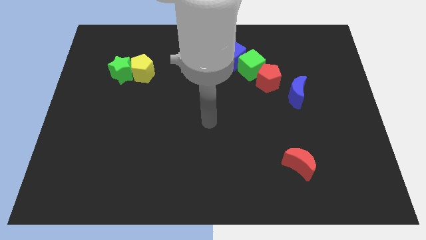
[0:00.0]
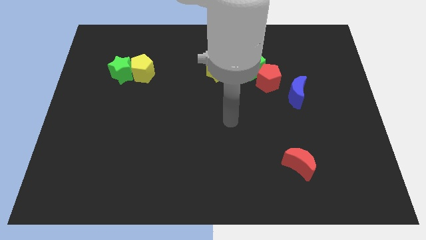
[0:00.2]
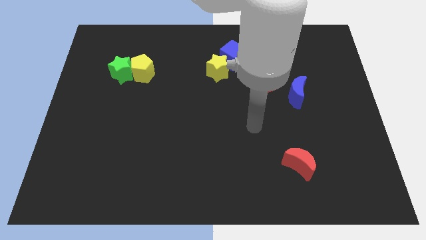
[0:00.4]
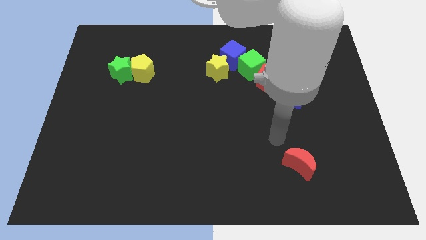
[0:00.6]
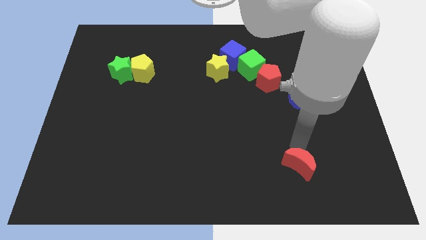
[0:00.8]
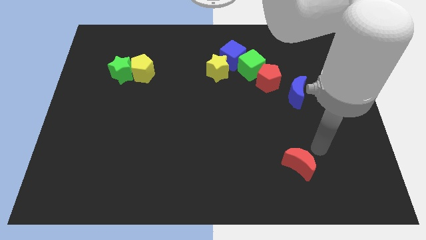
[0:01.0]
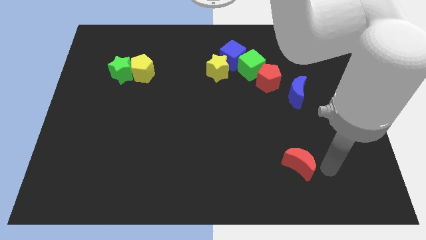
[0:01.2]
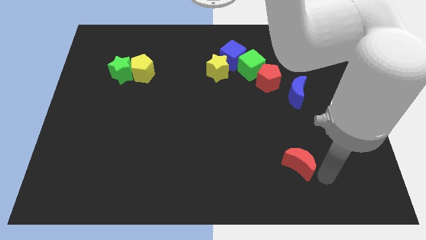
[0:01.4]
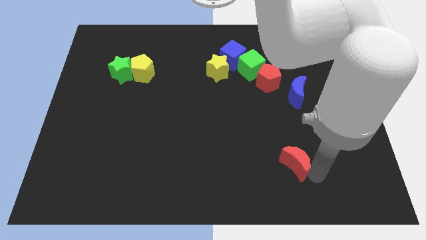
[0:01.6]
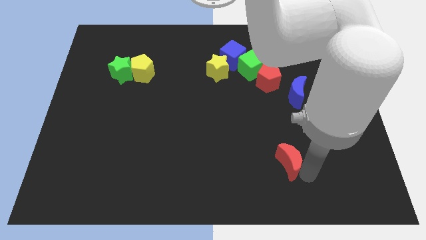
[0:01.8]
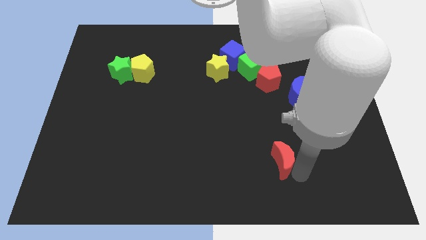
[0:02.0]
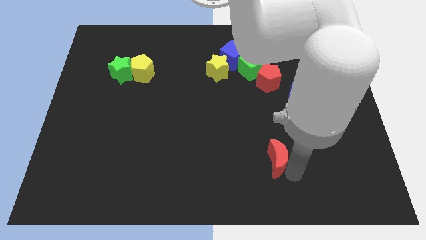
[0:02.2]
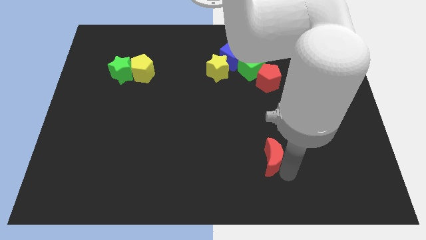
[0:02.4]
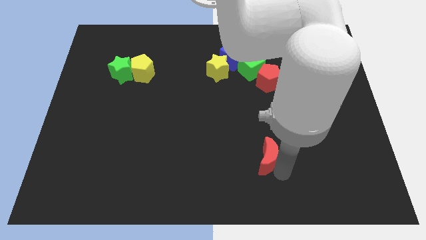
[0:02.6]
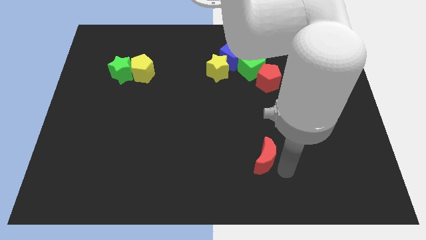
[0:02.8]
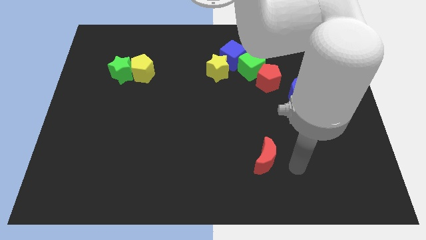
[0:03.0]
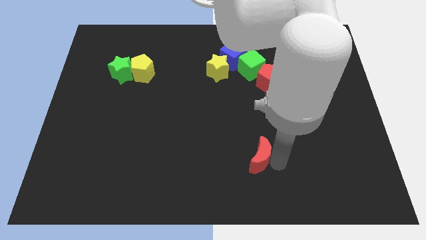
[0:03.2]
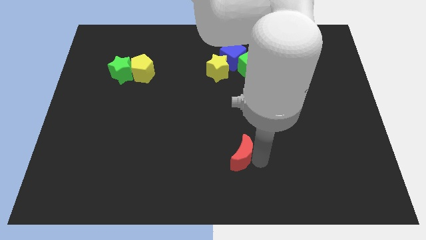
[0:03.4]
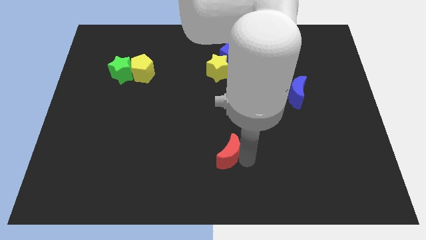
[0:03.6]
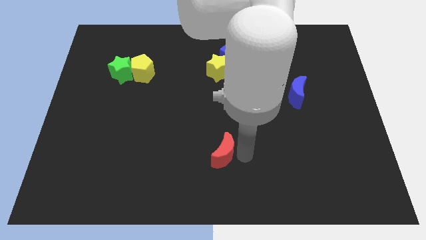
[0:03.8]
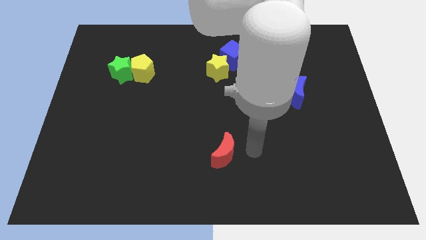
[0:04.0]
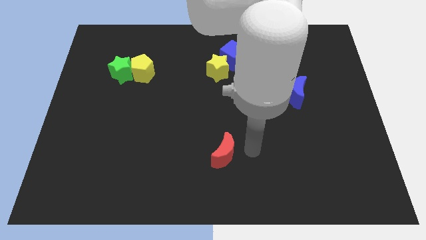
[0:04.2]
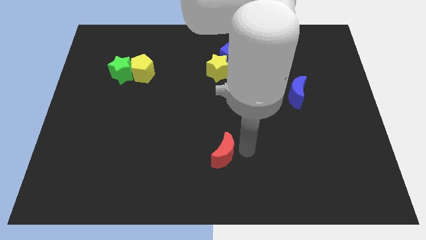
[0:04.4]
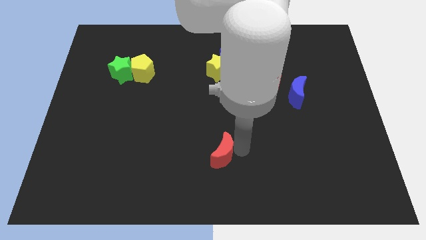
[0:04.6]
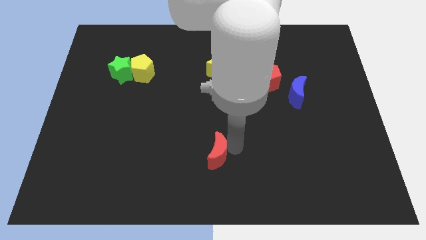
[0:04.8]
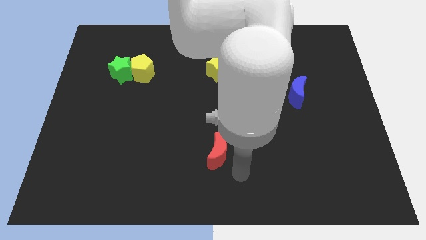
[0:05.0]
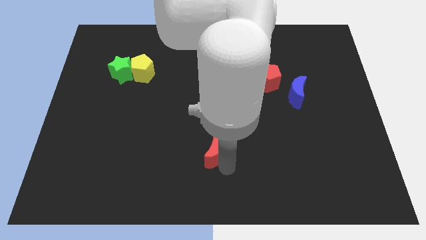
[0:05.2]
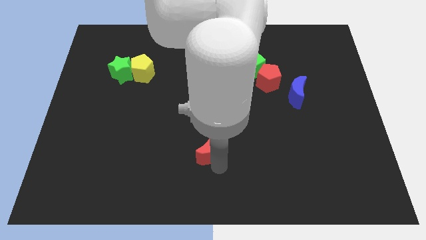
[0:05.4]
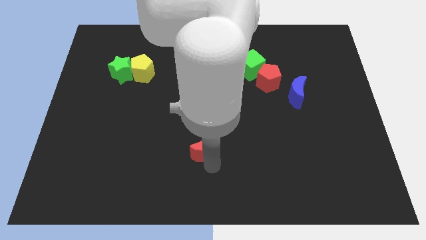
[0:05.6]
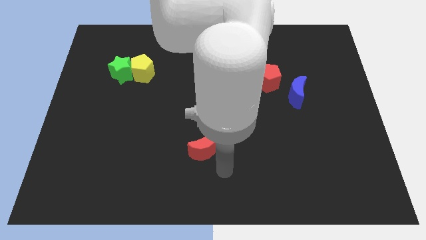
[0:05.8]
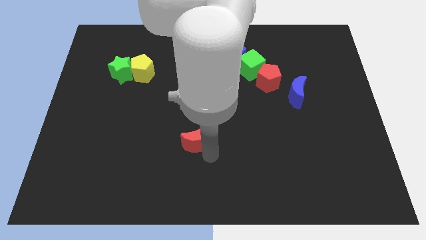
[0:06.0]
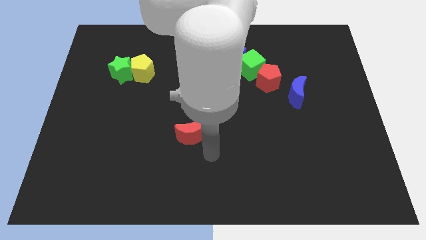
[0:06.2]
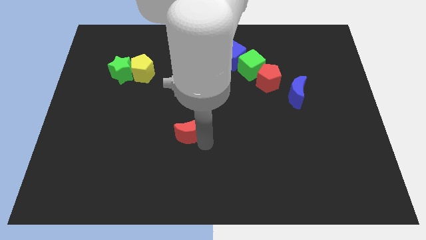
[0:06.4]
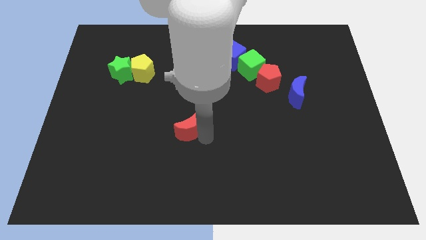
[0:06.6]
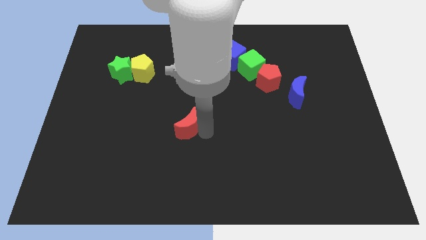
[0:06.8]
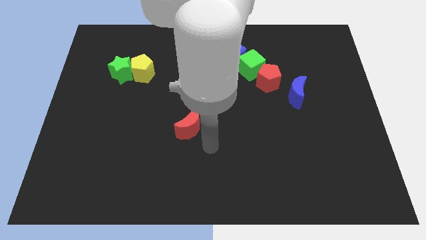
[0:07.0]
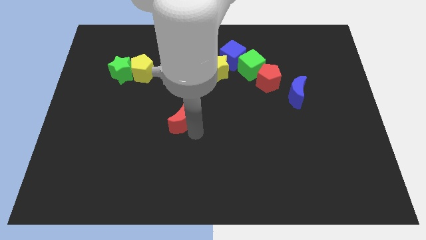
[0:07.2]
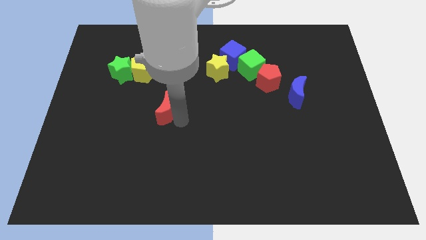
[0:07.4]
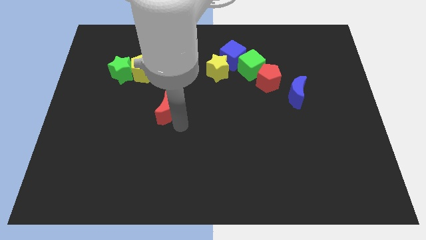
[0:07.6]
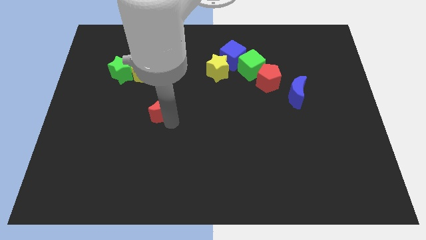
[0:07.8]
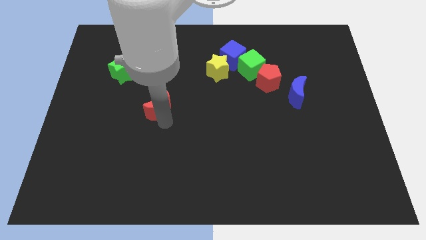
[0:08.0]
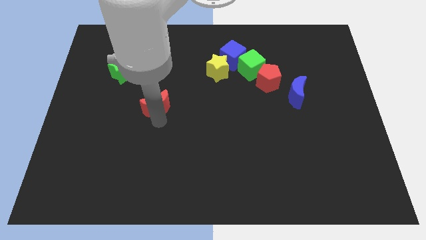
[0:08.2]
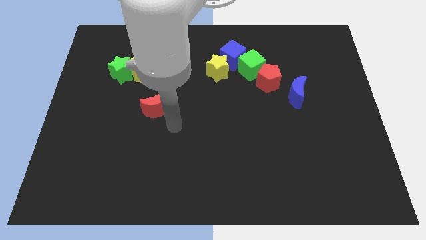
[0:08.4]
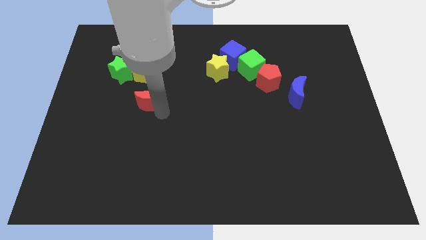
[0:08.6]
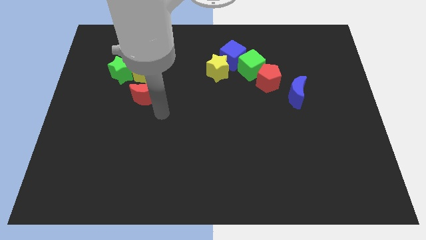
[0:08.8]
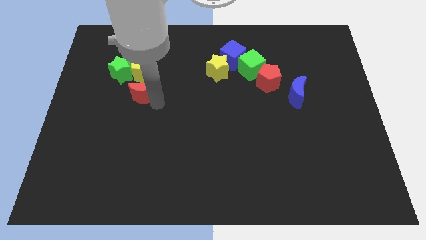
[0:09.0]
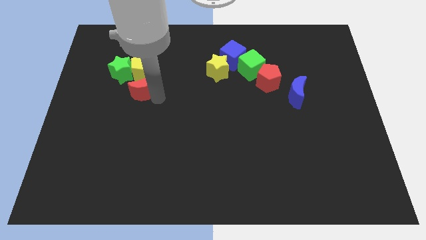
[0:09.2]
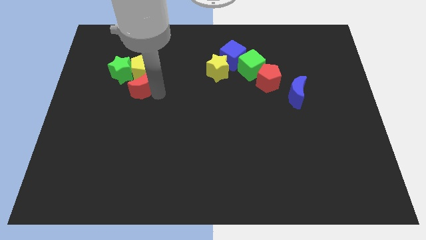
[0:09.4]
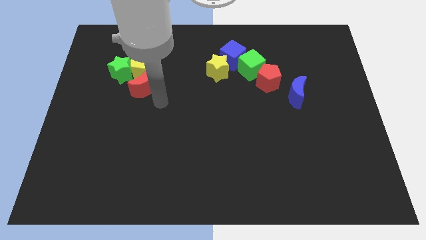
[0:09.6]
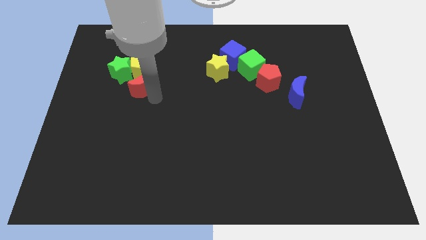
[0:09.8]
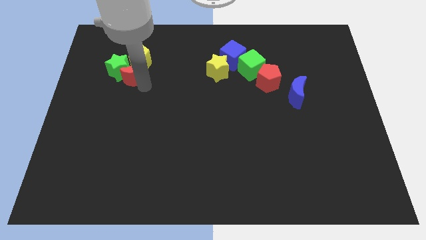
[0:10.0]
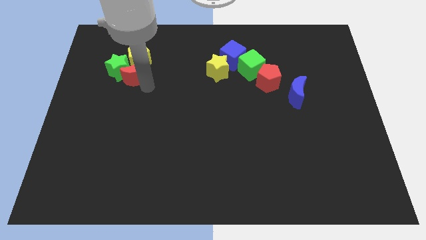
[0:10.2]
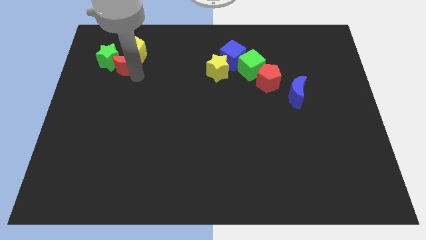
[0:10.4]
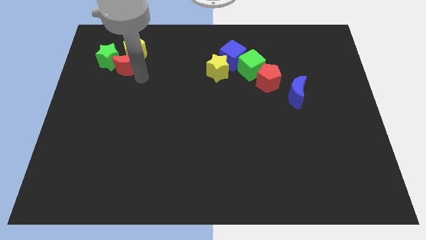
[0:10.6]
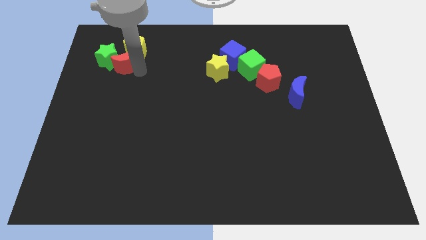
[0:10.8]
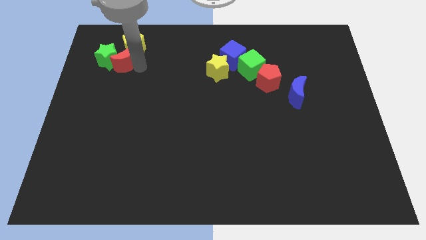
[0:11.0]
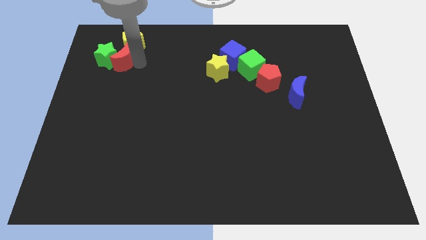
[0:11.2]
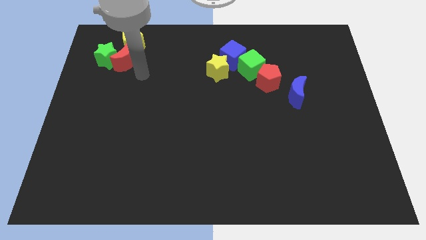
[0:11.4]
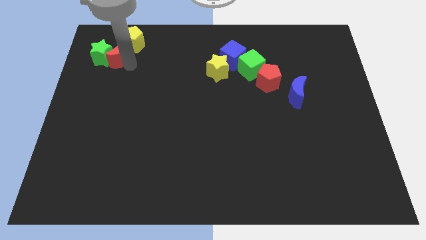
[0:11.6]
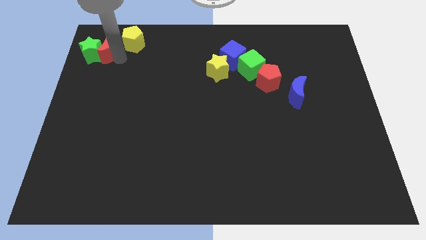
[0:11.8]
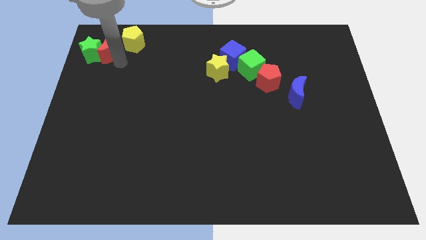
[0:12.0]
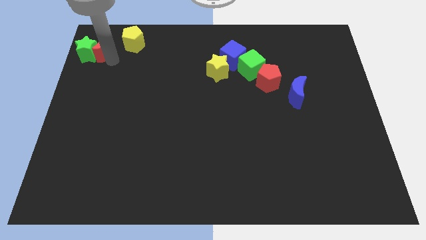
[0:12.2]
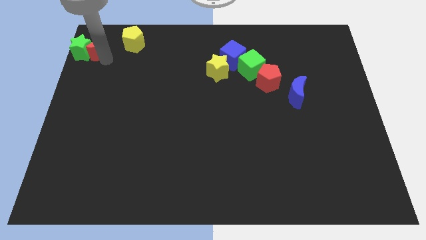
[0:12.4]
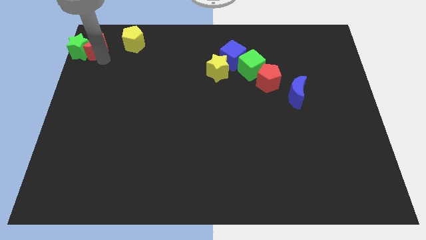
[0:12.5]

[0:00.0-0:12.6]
push the red moon to the top left of the board
